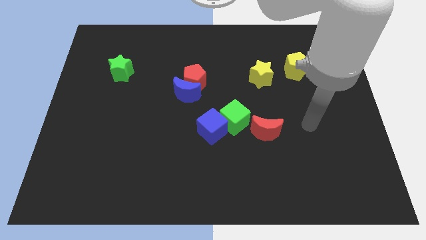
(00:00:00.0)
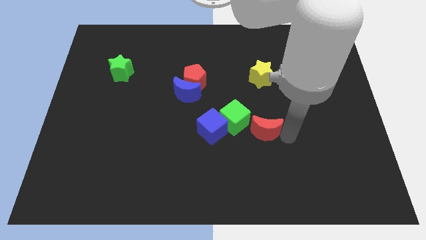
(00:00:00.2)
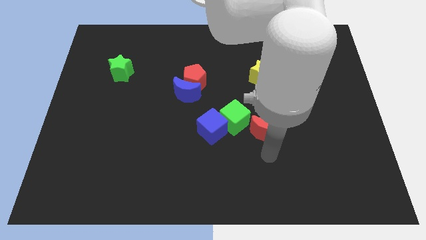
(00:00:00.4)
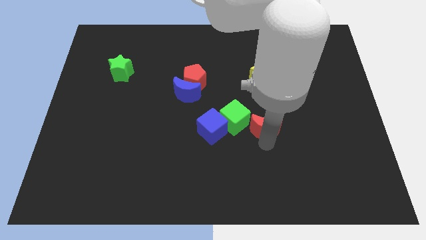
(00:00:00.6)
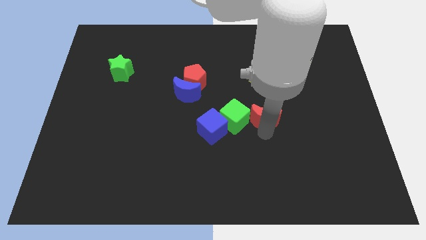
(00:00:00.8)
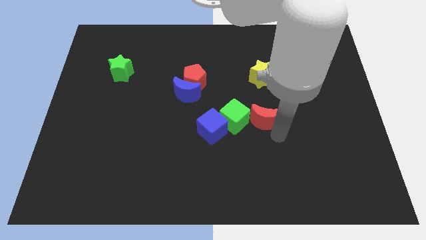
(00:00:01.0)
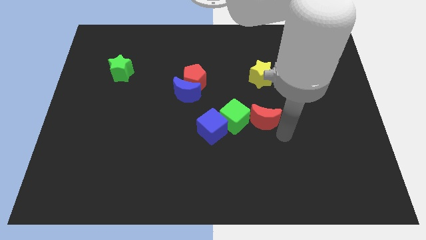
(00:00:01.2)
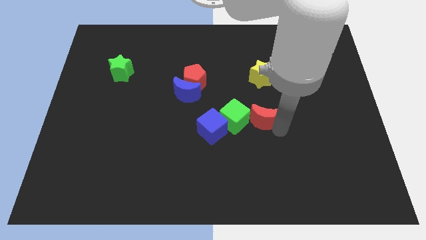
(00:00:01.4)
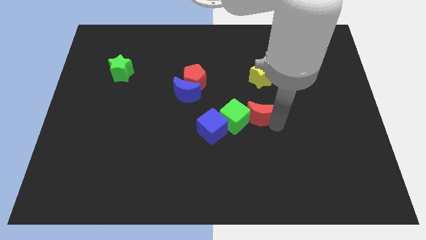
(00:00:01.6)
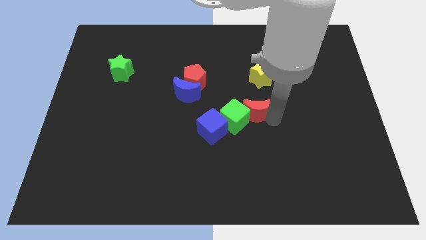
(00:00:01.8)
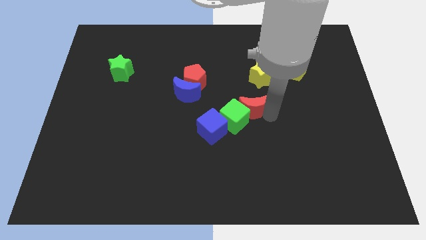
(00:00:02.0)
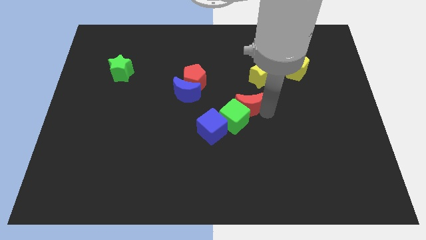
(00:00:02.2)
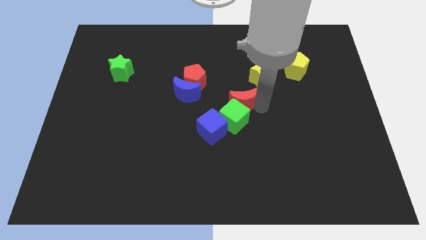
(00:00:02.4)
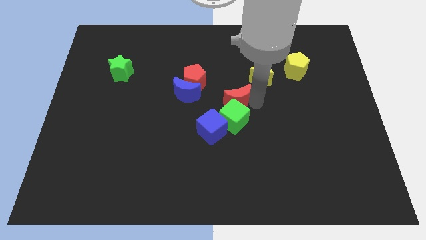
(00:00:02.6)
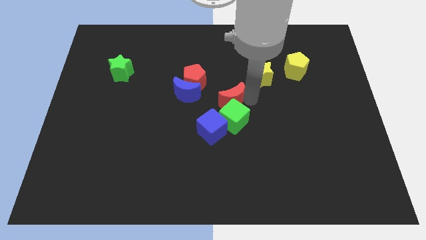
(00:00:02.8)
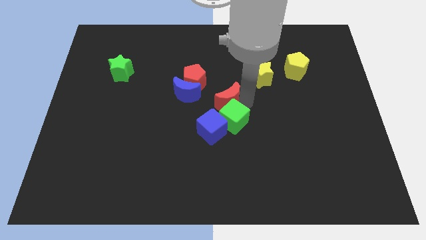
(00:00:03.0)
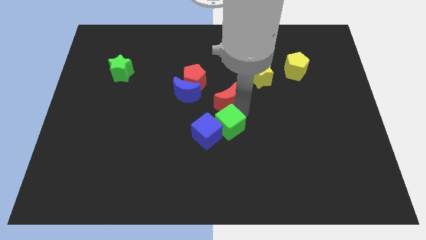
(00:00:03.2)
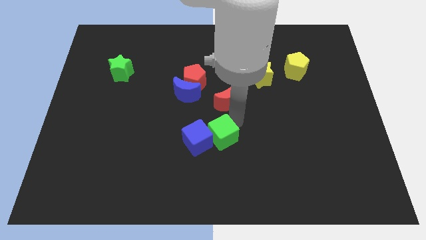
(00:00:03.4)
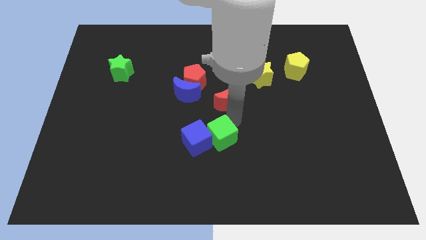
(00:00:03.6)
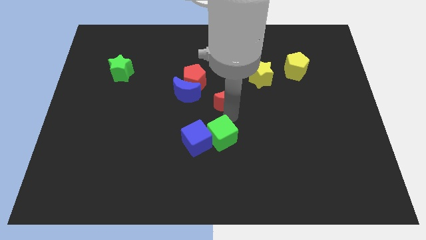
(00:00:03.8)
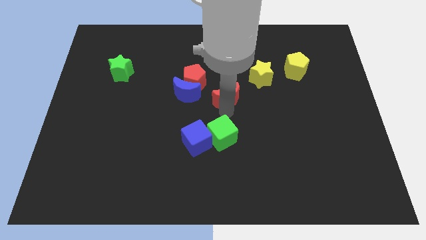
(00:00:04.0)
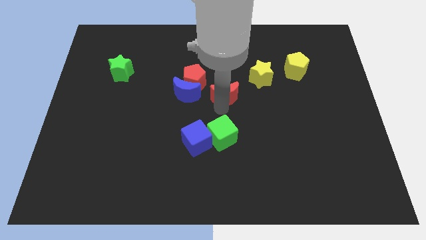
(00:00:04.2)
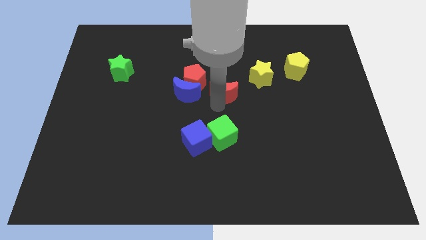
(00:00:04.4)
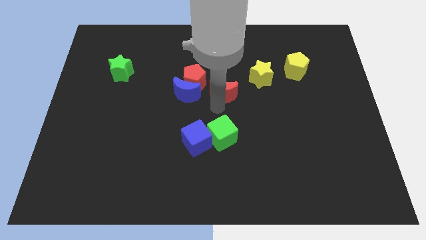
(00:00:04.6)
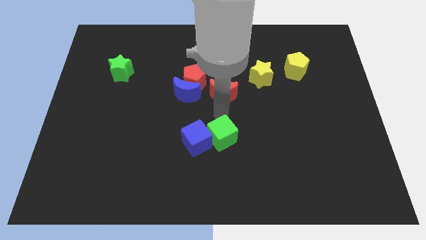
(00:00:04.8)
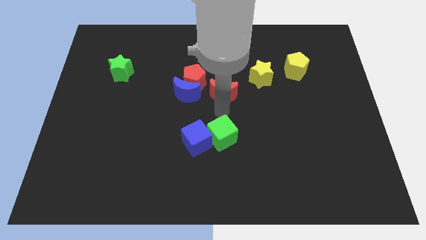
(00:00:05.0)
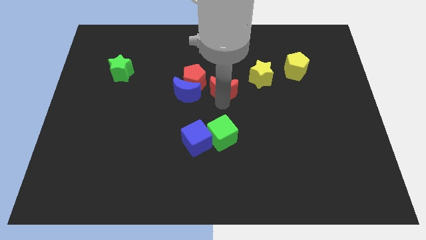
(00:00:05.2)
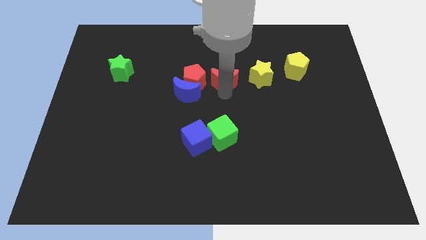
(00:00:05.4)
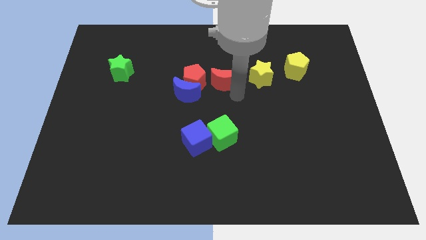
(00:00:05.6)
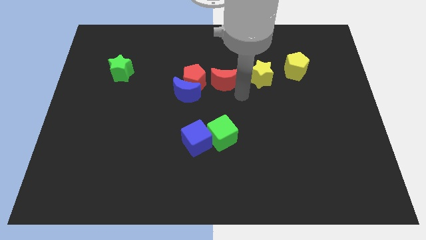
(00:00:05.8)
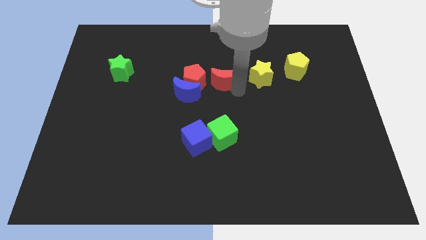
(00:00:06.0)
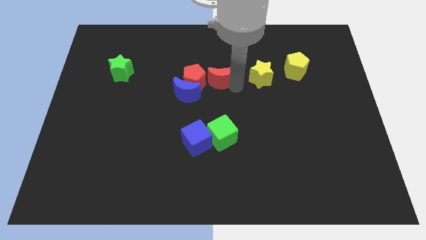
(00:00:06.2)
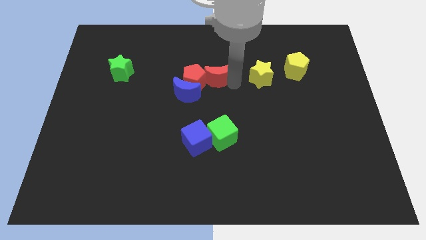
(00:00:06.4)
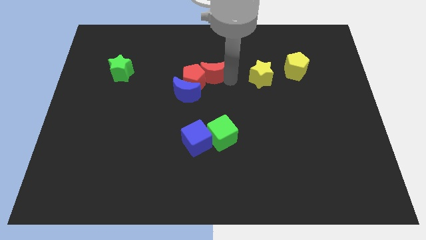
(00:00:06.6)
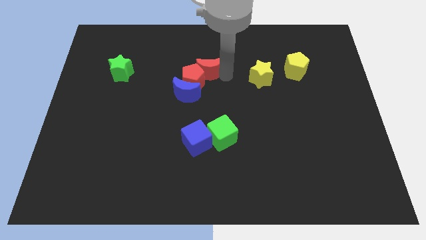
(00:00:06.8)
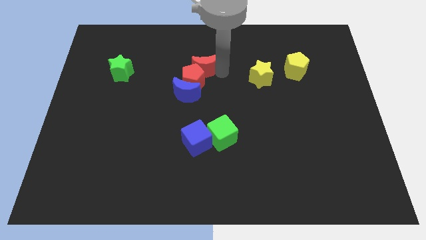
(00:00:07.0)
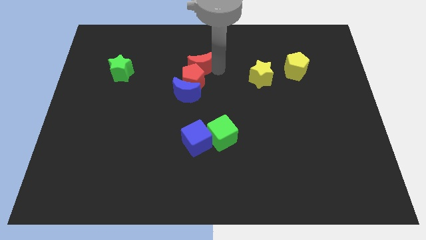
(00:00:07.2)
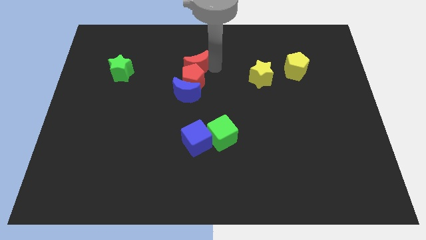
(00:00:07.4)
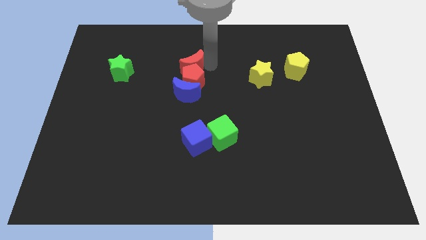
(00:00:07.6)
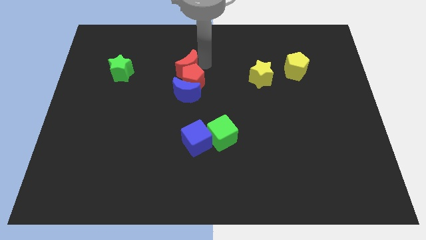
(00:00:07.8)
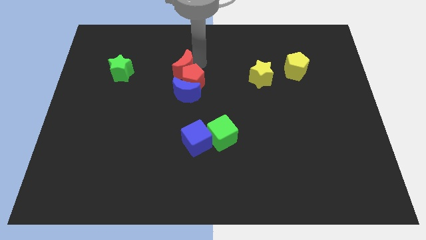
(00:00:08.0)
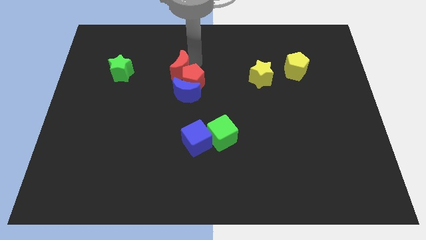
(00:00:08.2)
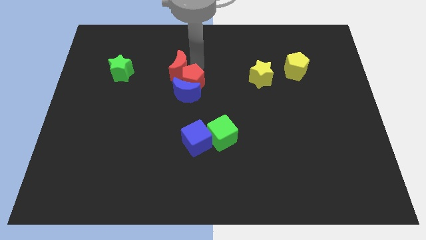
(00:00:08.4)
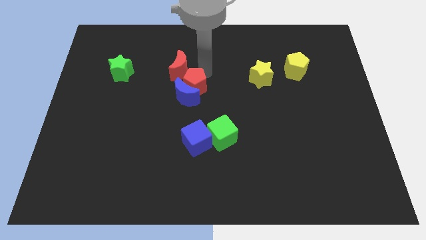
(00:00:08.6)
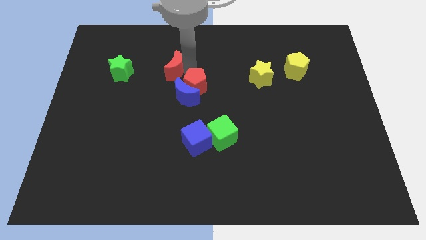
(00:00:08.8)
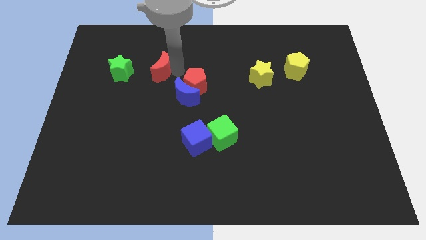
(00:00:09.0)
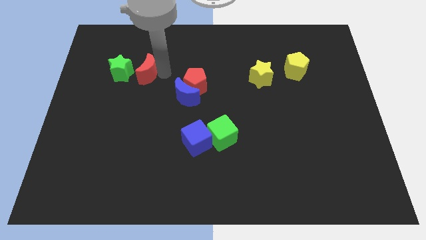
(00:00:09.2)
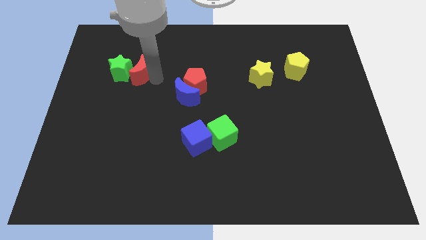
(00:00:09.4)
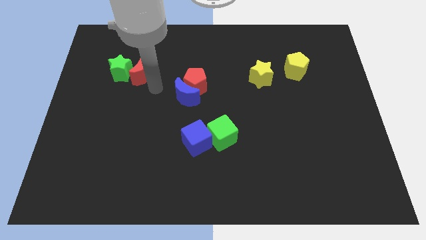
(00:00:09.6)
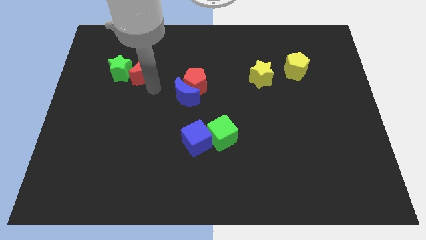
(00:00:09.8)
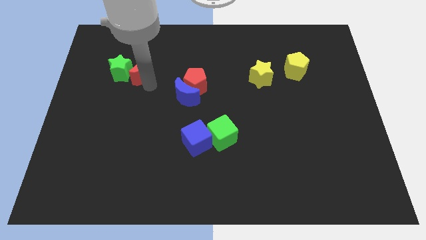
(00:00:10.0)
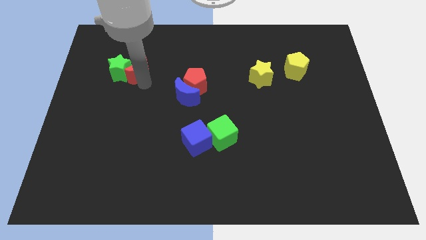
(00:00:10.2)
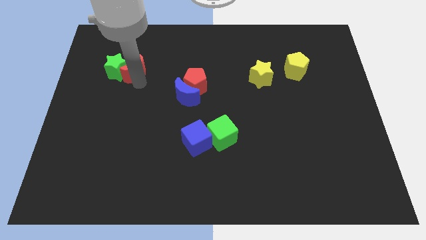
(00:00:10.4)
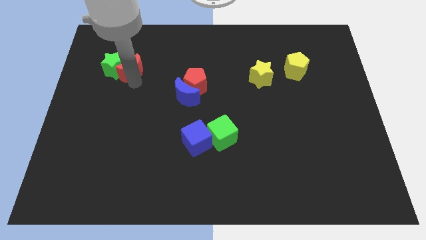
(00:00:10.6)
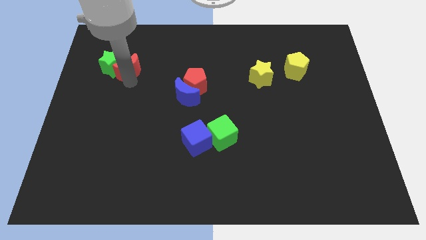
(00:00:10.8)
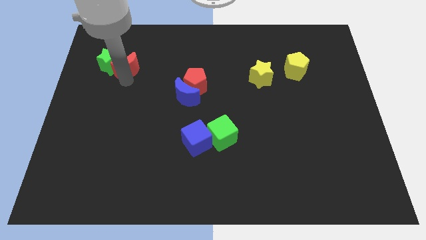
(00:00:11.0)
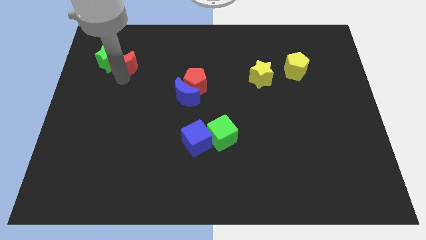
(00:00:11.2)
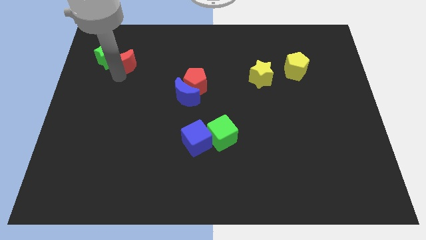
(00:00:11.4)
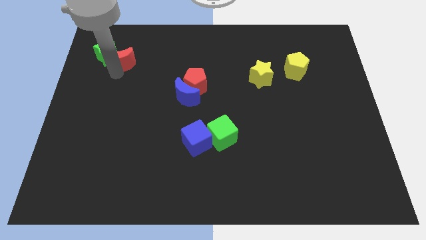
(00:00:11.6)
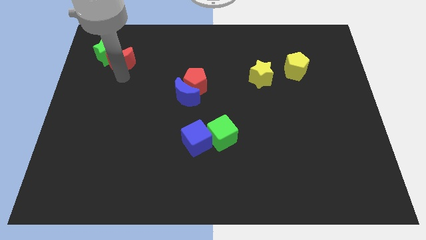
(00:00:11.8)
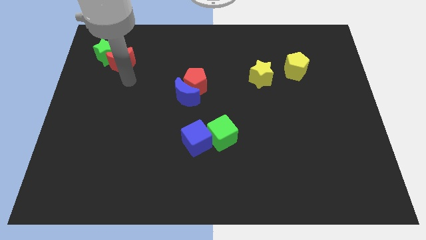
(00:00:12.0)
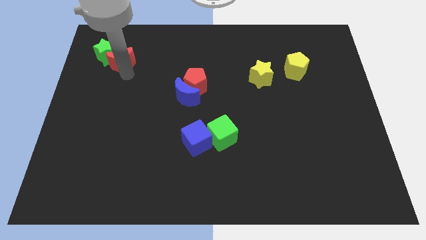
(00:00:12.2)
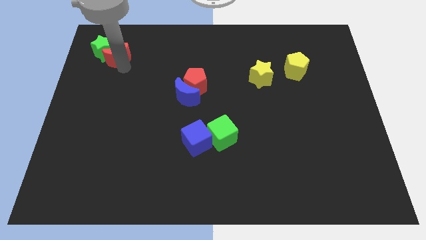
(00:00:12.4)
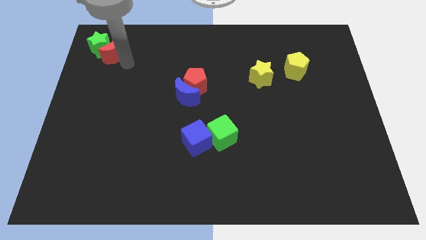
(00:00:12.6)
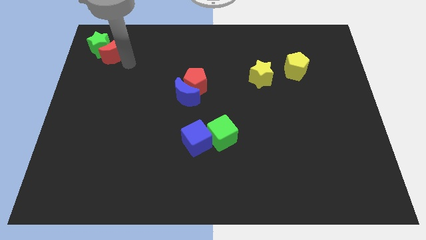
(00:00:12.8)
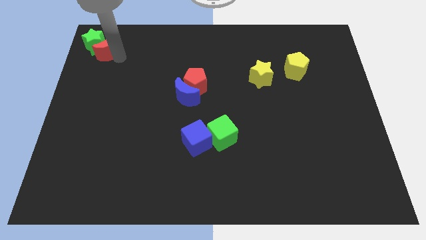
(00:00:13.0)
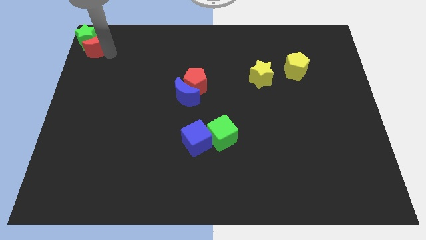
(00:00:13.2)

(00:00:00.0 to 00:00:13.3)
put the red moon to the top left of the board
